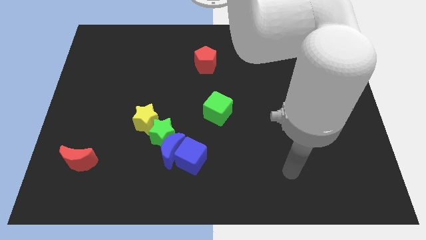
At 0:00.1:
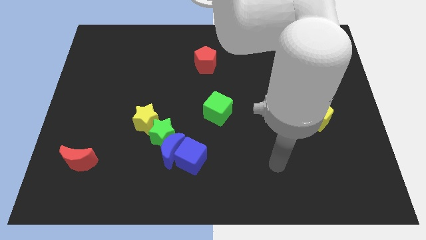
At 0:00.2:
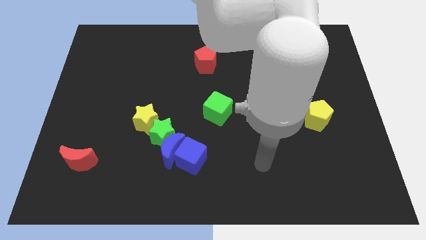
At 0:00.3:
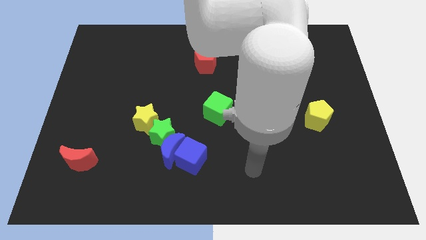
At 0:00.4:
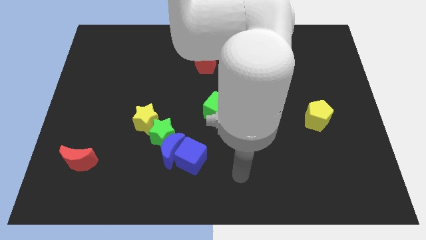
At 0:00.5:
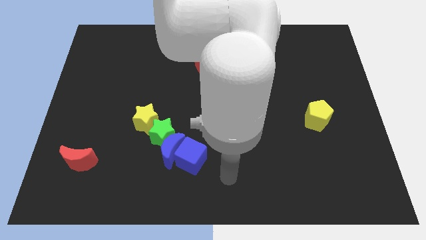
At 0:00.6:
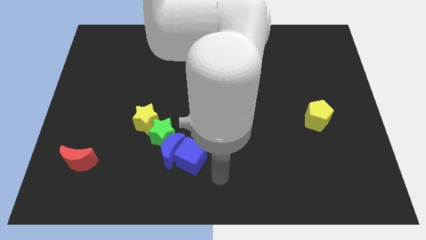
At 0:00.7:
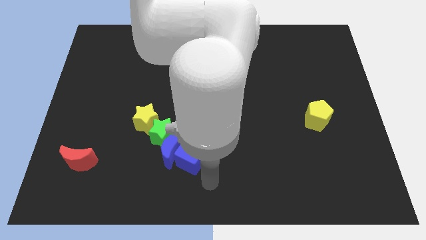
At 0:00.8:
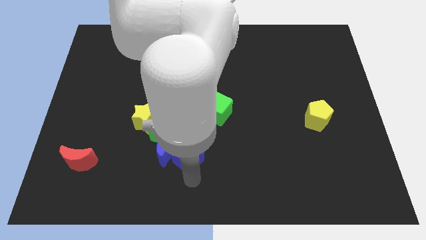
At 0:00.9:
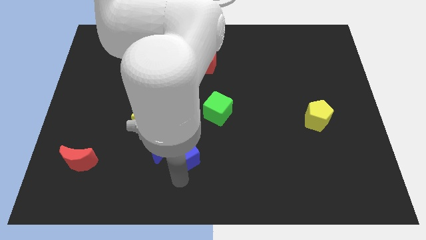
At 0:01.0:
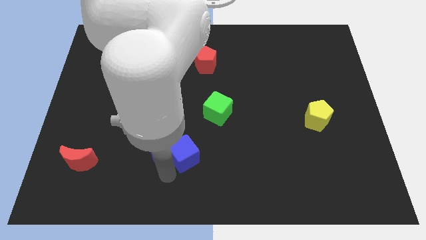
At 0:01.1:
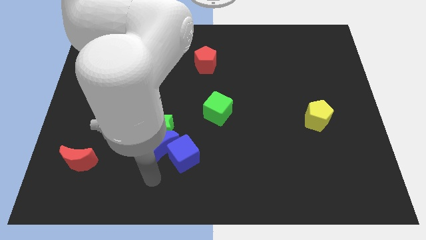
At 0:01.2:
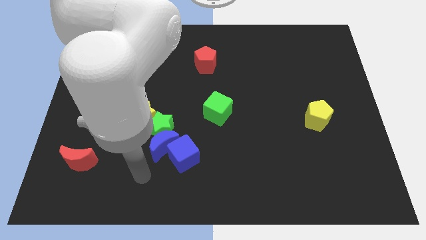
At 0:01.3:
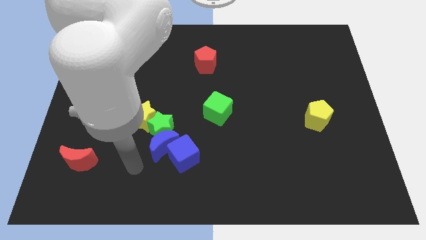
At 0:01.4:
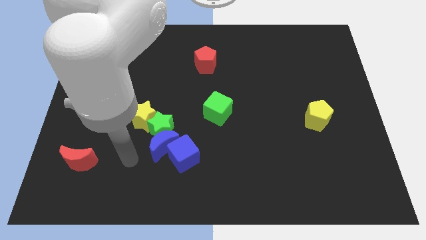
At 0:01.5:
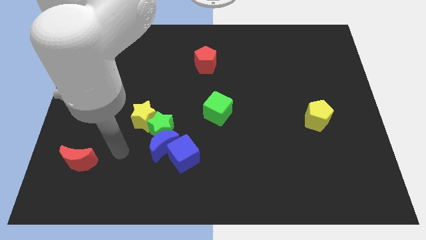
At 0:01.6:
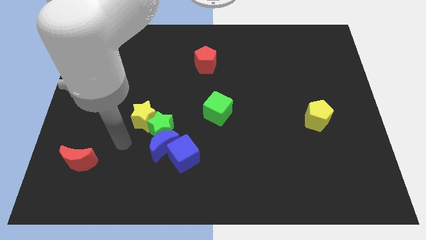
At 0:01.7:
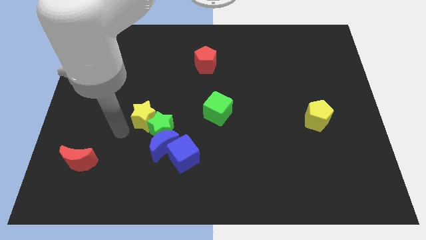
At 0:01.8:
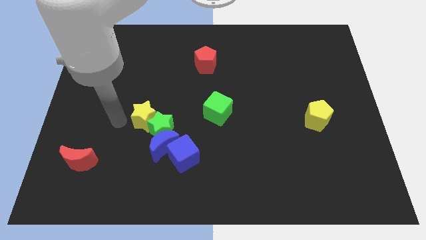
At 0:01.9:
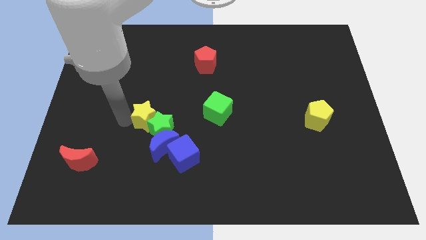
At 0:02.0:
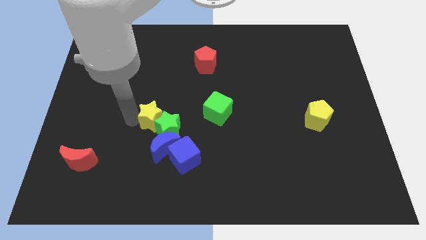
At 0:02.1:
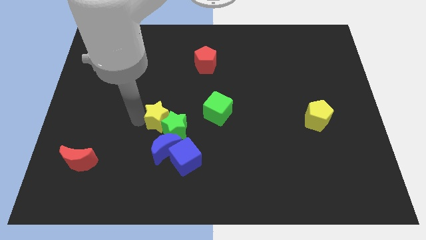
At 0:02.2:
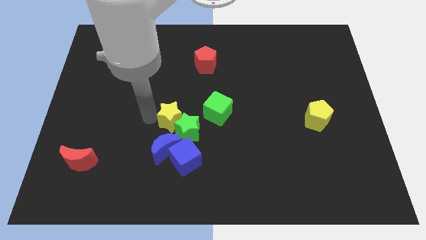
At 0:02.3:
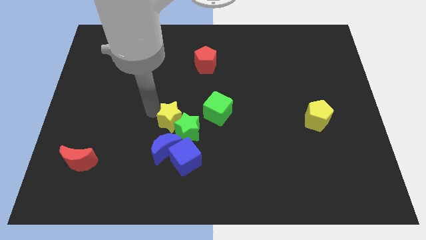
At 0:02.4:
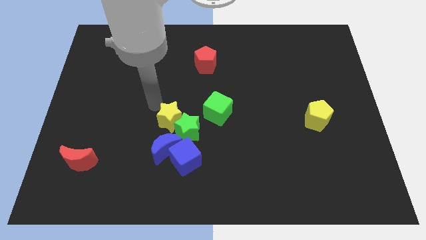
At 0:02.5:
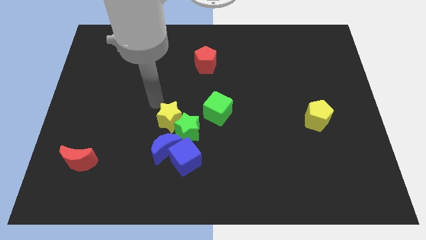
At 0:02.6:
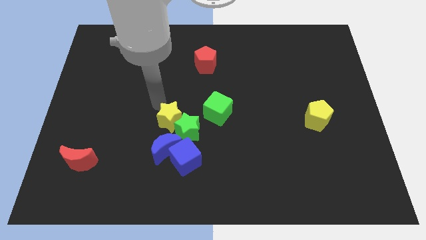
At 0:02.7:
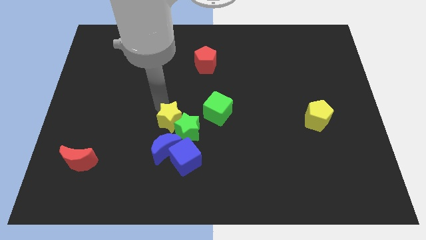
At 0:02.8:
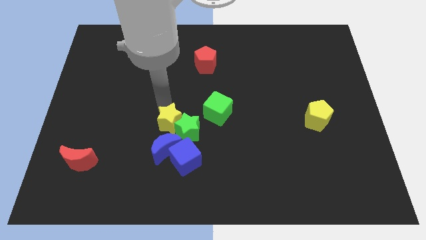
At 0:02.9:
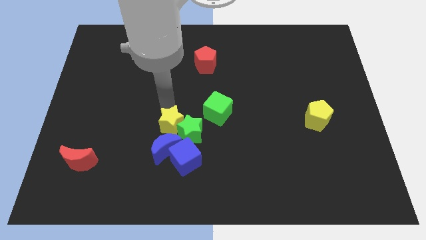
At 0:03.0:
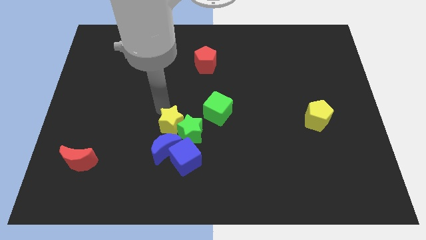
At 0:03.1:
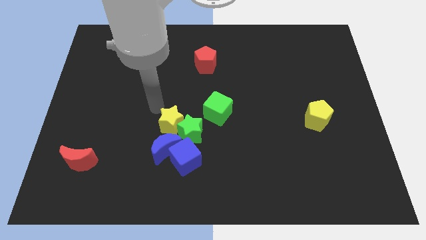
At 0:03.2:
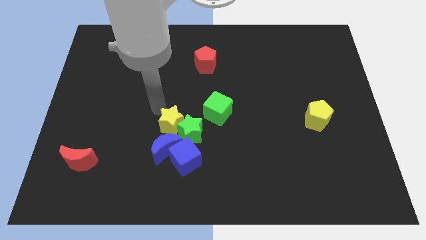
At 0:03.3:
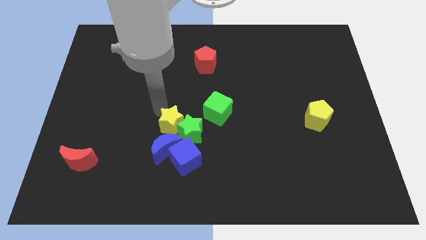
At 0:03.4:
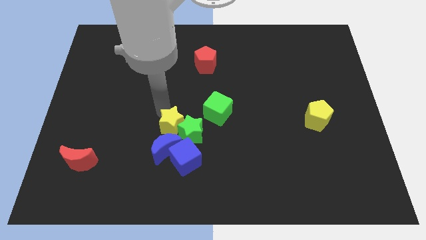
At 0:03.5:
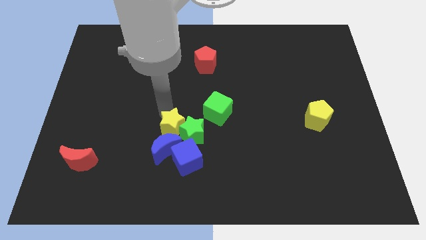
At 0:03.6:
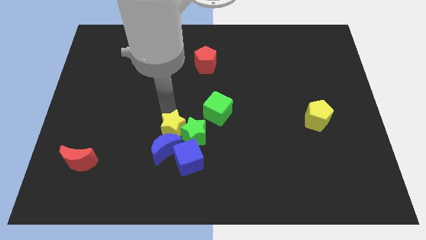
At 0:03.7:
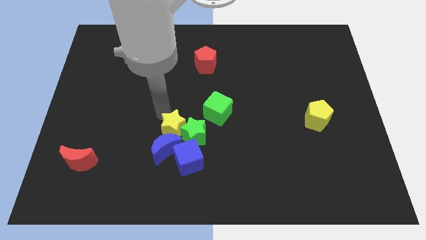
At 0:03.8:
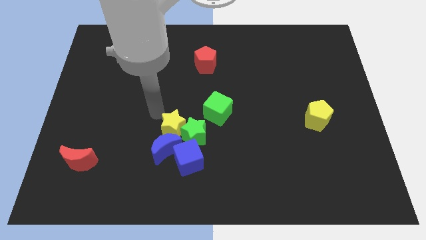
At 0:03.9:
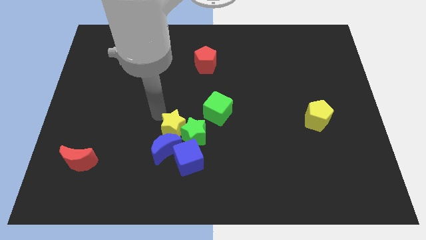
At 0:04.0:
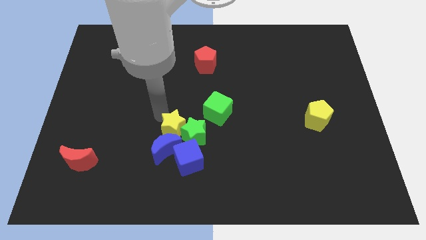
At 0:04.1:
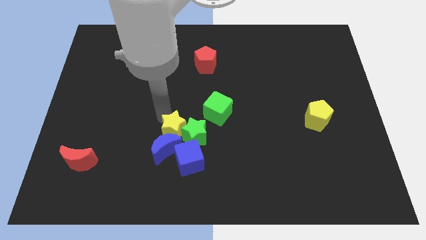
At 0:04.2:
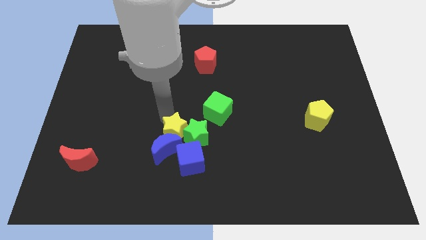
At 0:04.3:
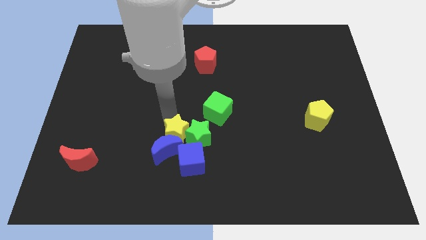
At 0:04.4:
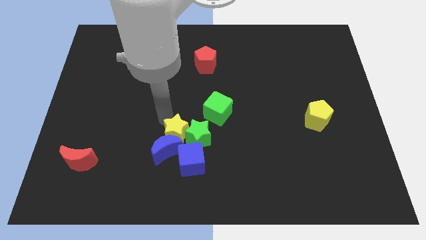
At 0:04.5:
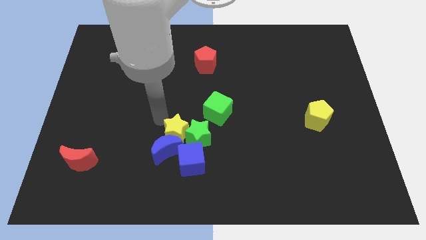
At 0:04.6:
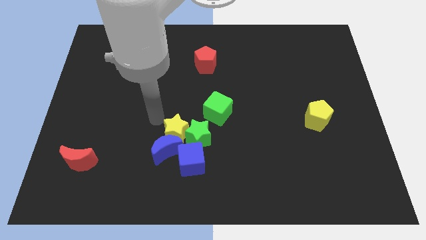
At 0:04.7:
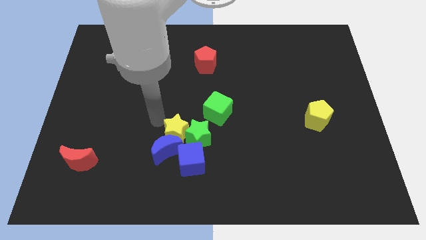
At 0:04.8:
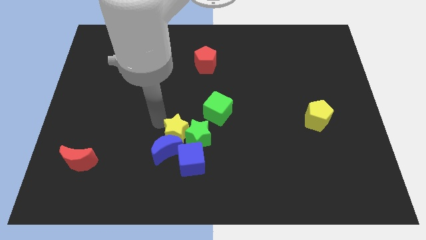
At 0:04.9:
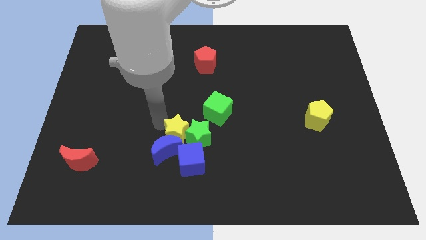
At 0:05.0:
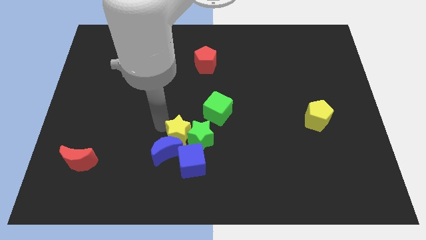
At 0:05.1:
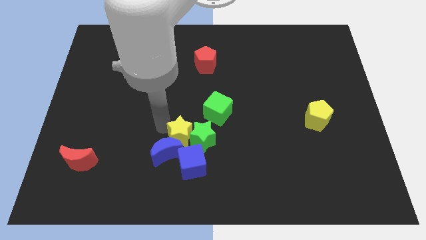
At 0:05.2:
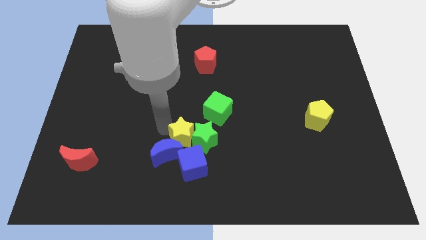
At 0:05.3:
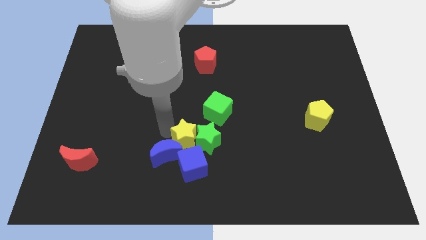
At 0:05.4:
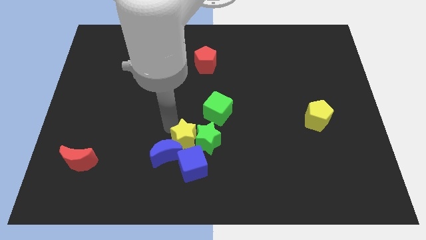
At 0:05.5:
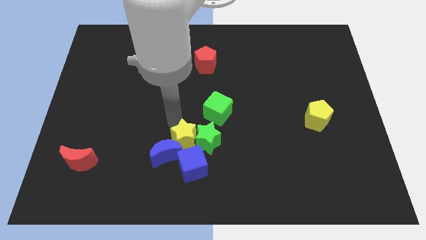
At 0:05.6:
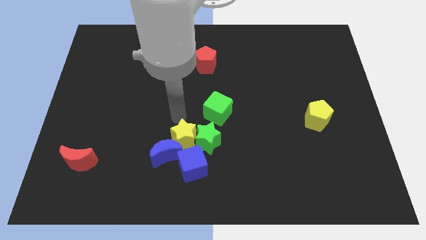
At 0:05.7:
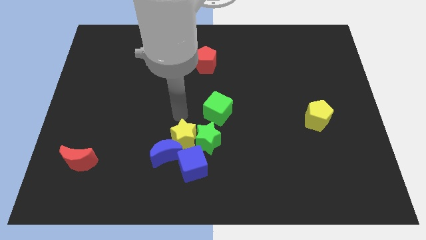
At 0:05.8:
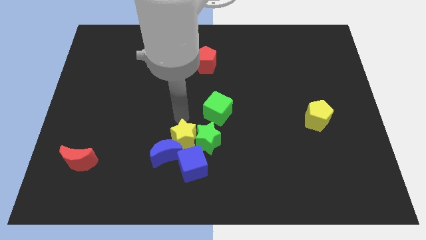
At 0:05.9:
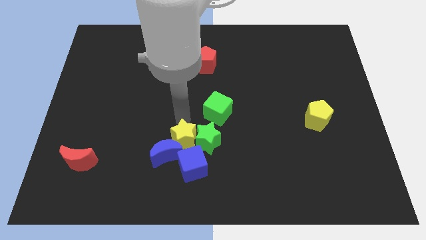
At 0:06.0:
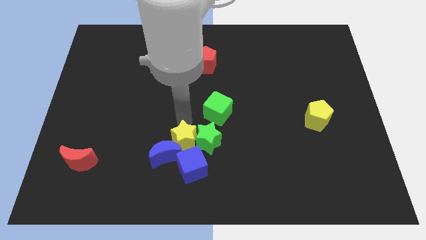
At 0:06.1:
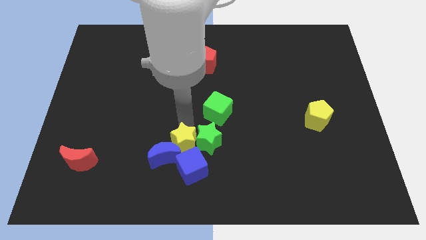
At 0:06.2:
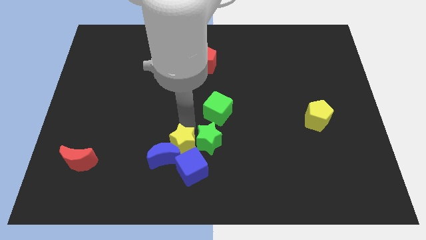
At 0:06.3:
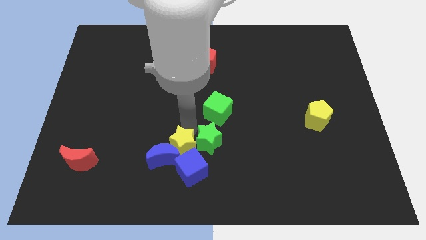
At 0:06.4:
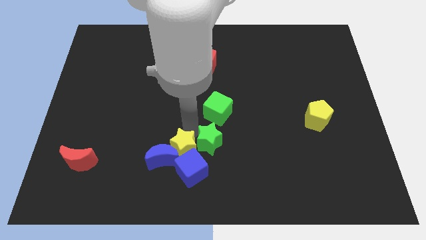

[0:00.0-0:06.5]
push the yellow star towards the blue cube

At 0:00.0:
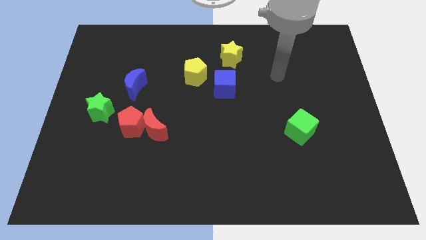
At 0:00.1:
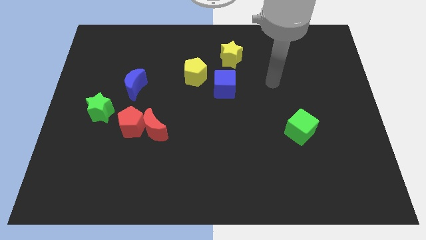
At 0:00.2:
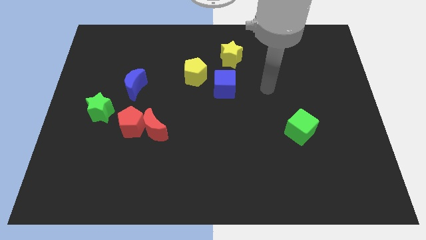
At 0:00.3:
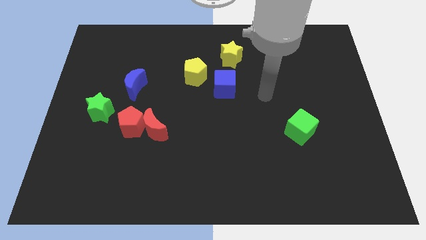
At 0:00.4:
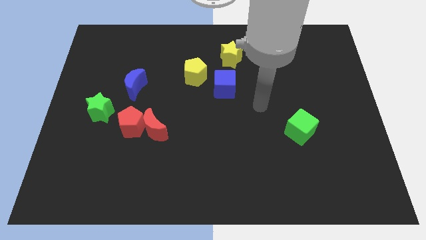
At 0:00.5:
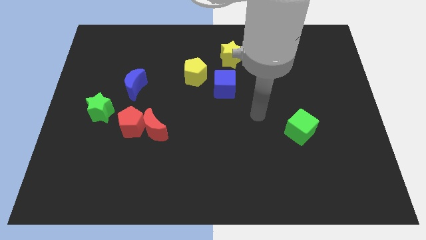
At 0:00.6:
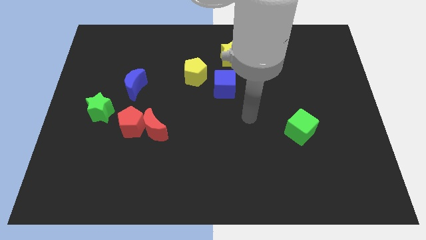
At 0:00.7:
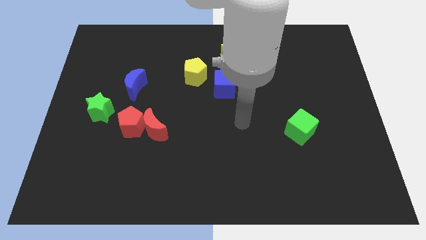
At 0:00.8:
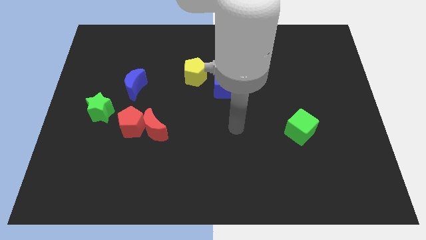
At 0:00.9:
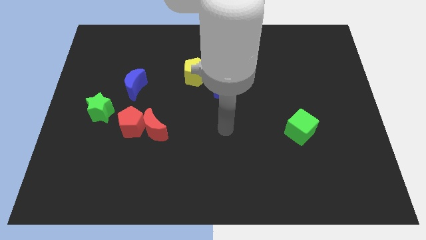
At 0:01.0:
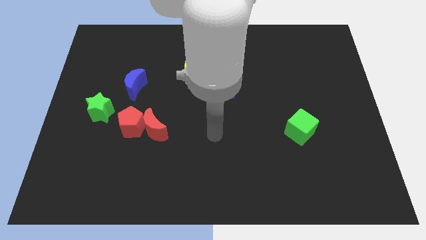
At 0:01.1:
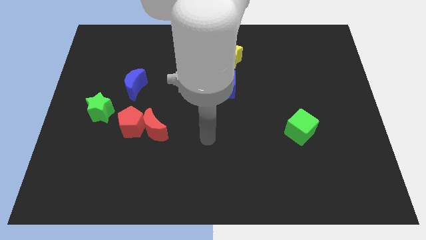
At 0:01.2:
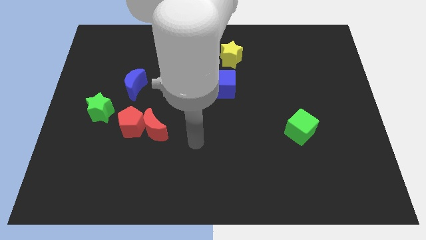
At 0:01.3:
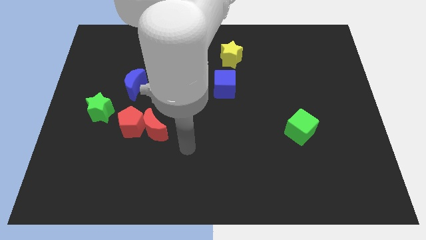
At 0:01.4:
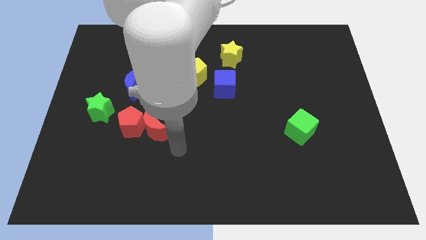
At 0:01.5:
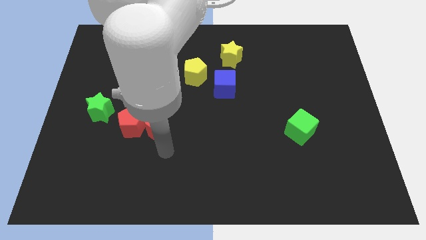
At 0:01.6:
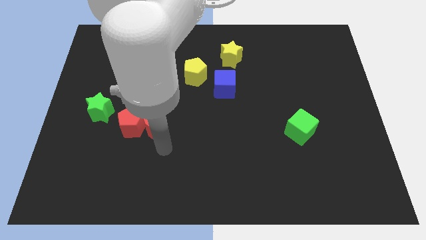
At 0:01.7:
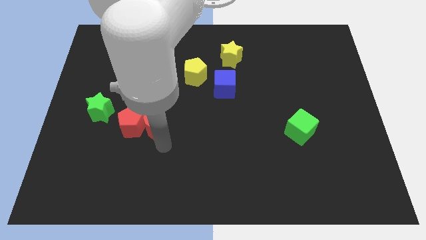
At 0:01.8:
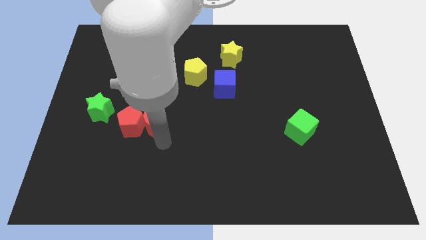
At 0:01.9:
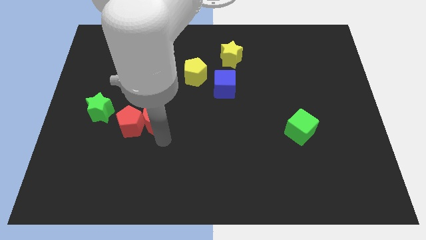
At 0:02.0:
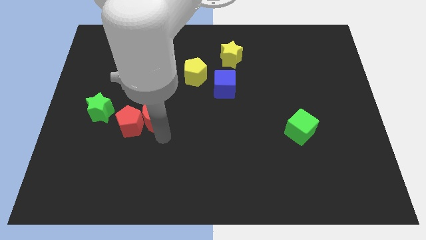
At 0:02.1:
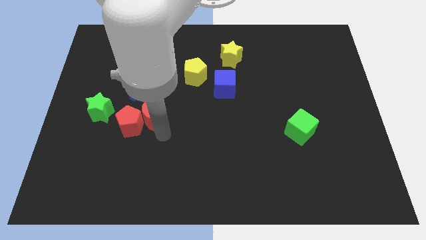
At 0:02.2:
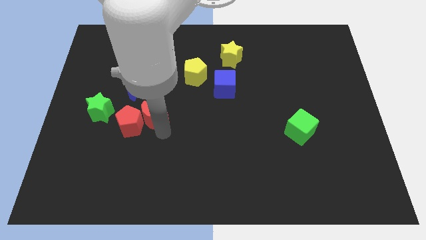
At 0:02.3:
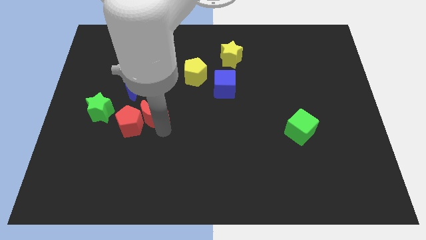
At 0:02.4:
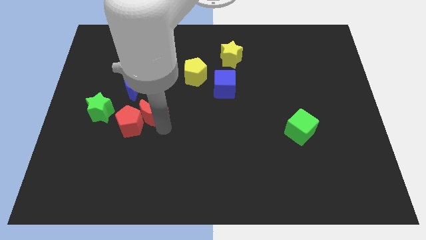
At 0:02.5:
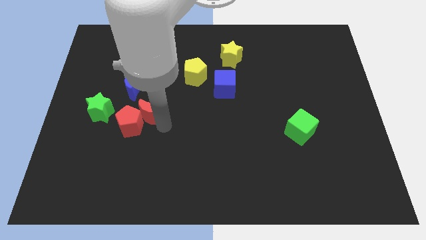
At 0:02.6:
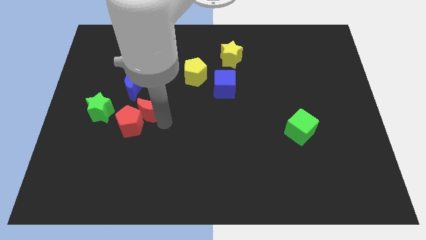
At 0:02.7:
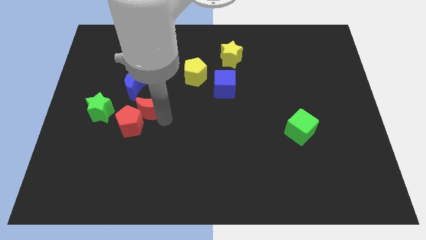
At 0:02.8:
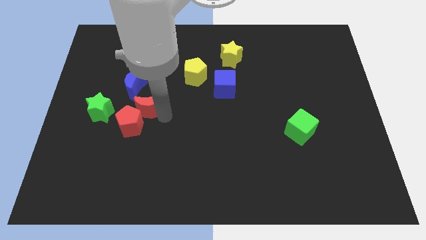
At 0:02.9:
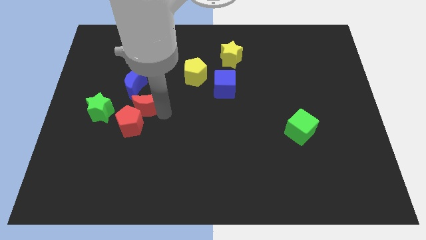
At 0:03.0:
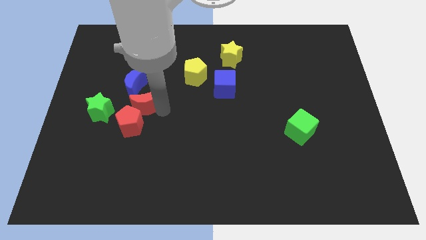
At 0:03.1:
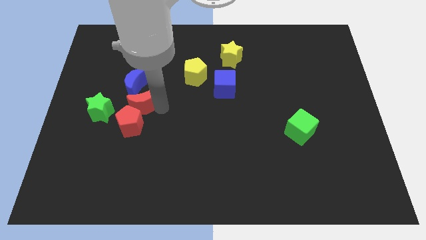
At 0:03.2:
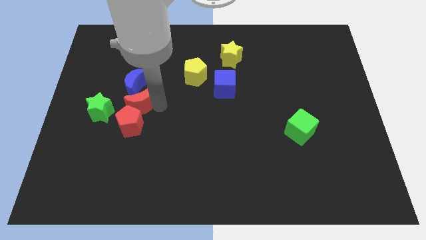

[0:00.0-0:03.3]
push the red moon close to the blue moon
